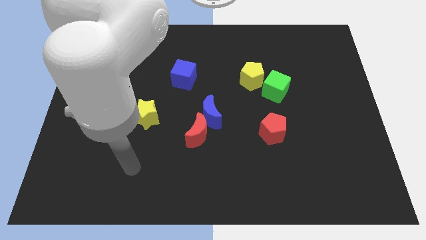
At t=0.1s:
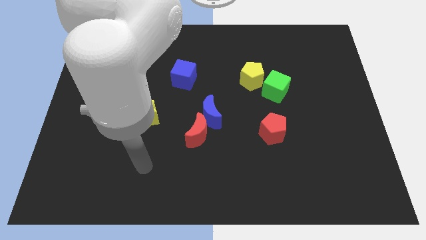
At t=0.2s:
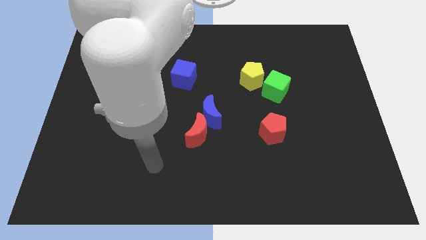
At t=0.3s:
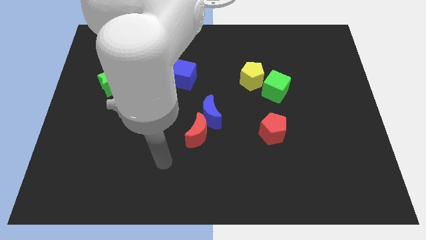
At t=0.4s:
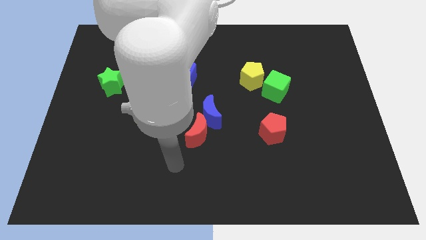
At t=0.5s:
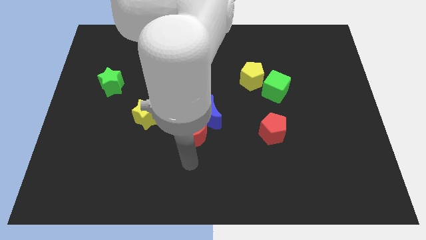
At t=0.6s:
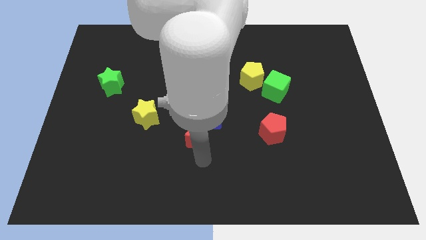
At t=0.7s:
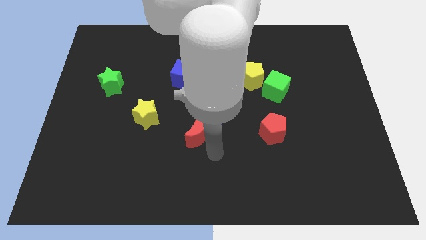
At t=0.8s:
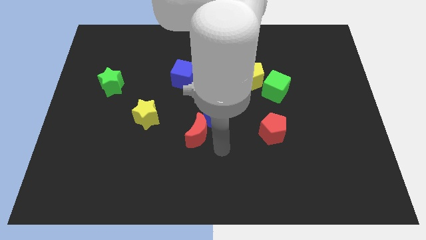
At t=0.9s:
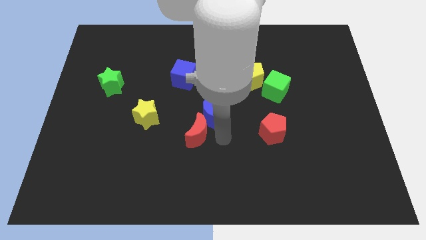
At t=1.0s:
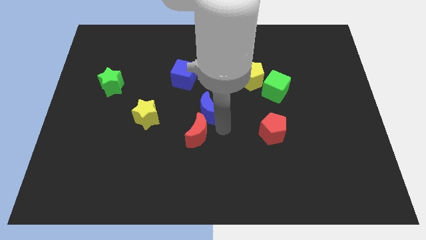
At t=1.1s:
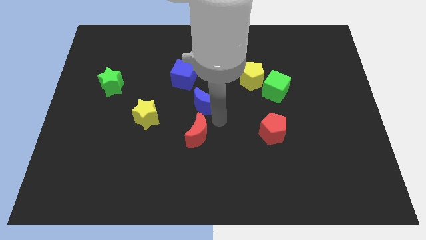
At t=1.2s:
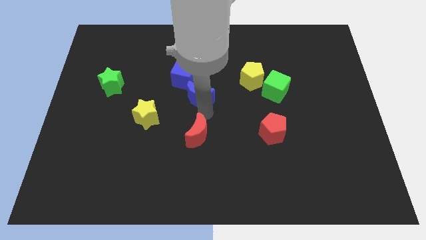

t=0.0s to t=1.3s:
pull the red moon apart from the blue moon

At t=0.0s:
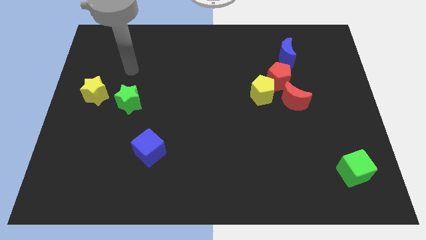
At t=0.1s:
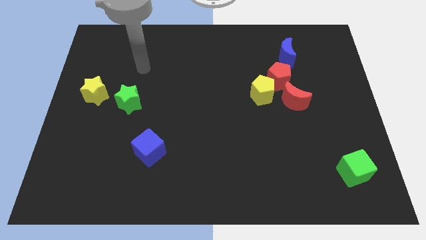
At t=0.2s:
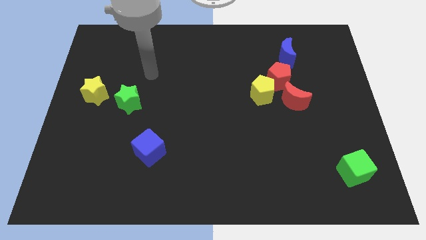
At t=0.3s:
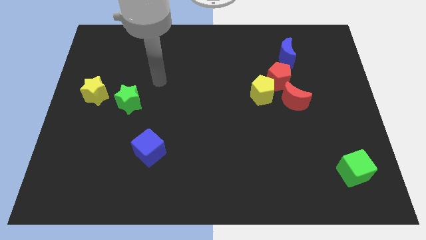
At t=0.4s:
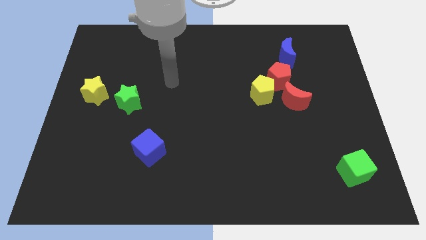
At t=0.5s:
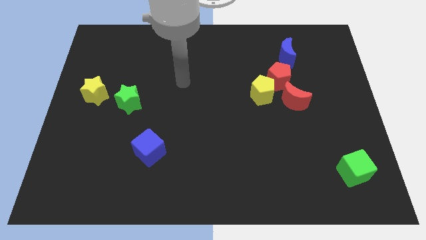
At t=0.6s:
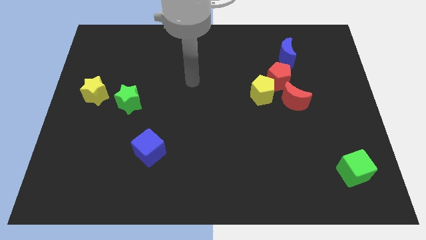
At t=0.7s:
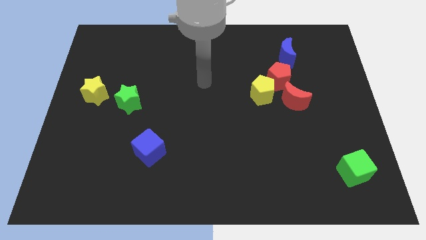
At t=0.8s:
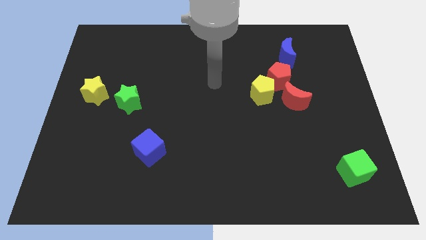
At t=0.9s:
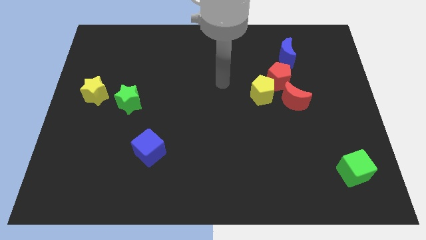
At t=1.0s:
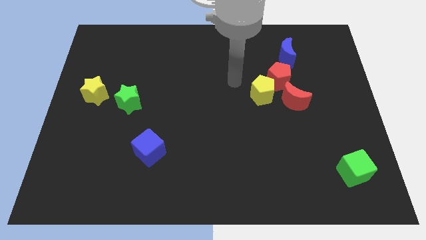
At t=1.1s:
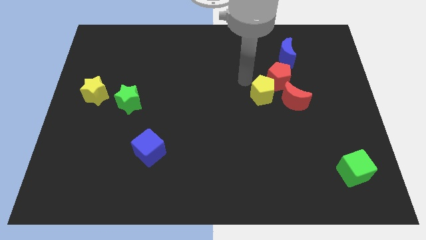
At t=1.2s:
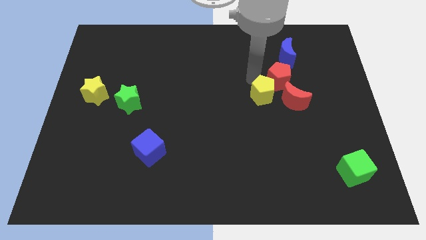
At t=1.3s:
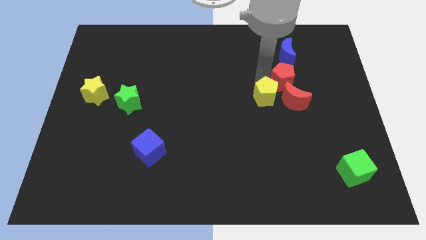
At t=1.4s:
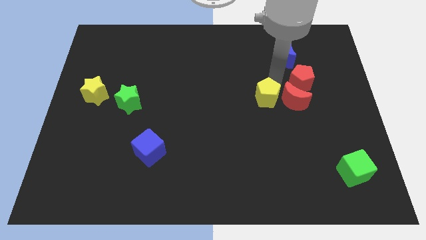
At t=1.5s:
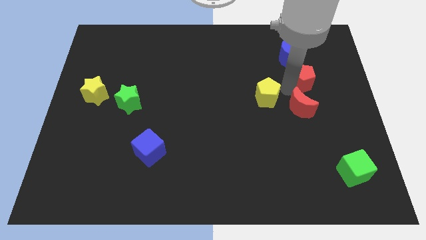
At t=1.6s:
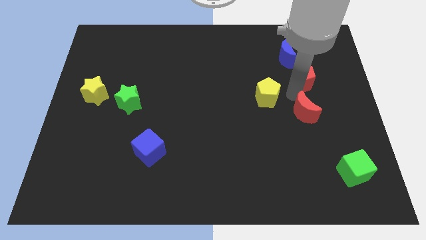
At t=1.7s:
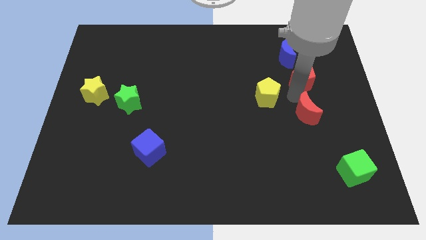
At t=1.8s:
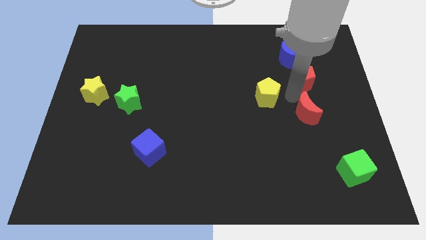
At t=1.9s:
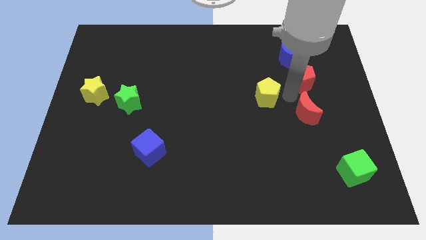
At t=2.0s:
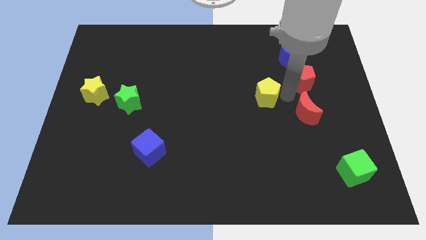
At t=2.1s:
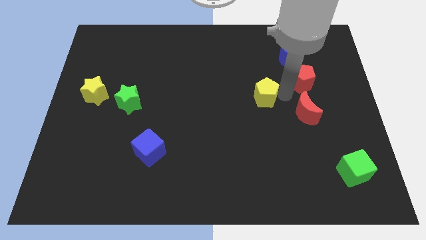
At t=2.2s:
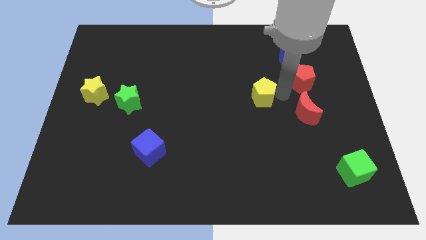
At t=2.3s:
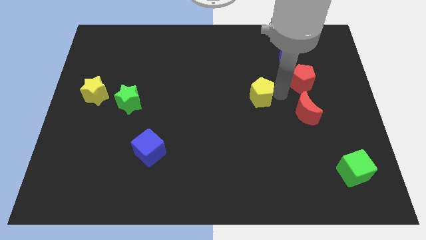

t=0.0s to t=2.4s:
move the yellow pentagon away from the red pentagon and red moon

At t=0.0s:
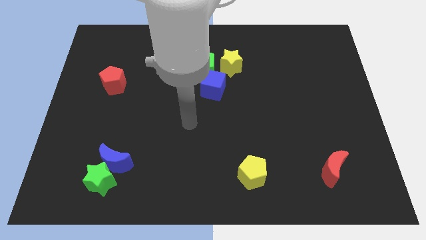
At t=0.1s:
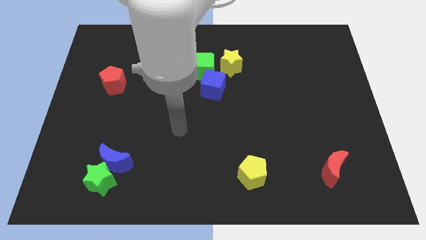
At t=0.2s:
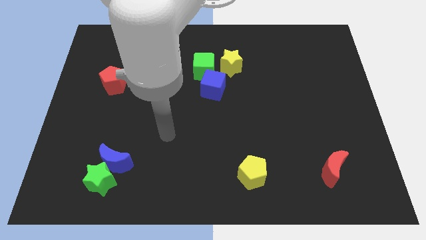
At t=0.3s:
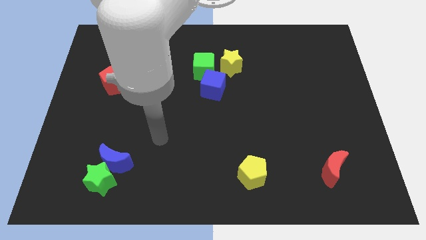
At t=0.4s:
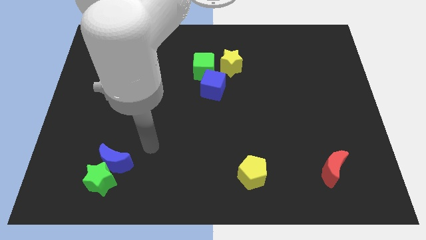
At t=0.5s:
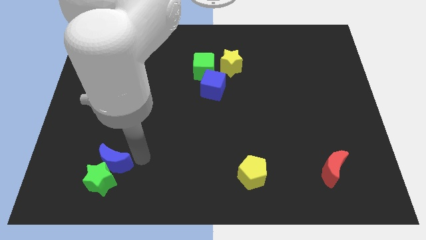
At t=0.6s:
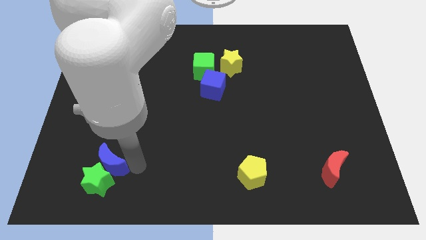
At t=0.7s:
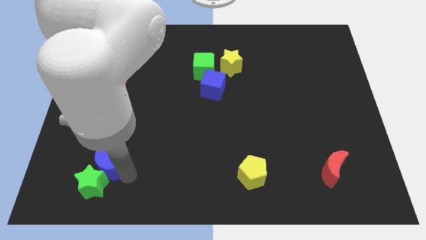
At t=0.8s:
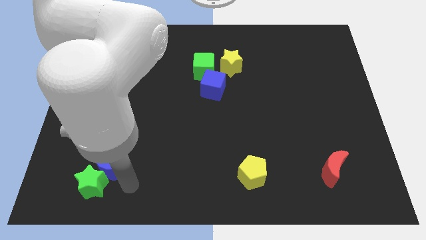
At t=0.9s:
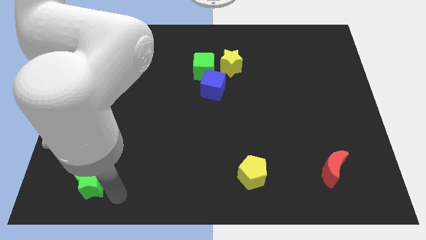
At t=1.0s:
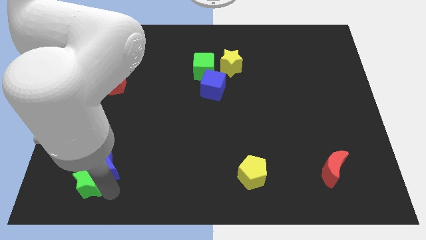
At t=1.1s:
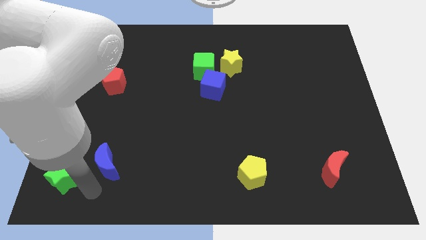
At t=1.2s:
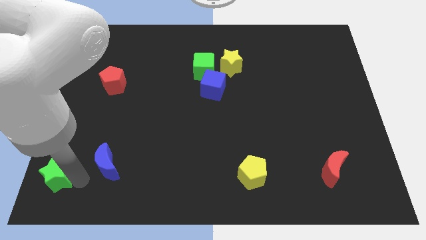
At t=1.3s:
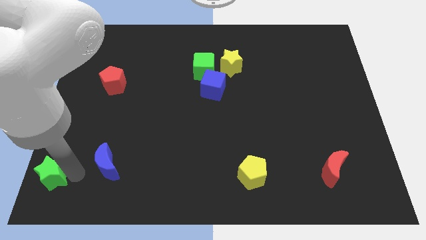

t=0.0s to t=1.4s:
pull the blue moon apart from the green star

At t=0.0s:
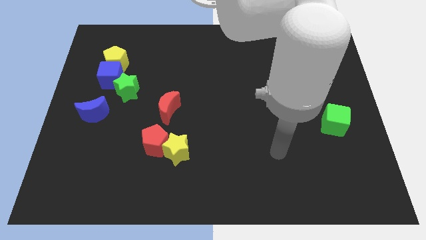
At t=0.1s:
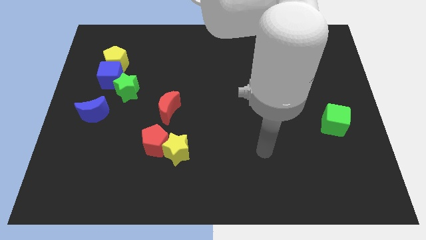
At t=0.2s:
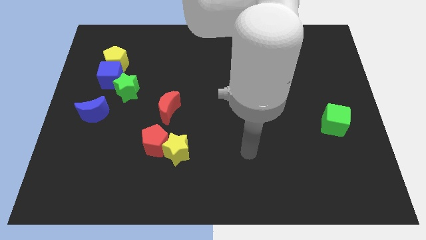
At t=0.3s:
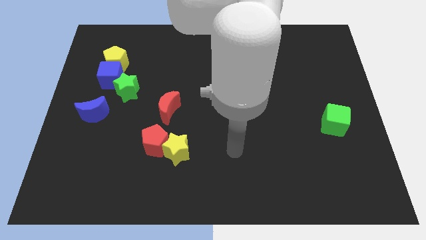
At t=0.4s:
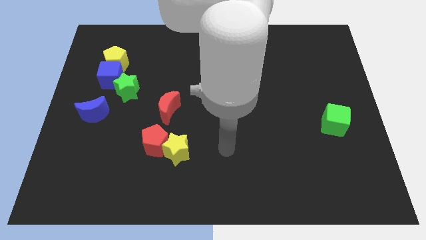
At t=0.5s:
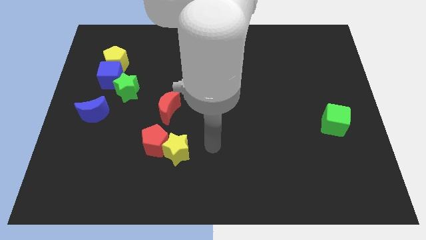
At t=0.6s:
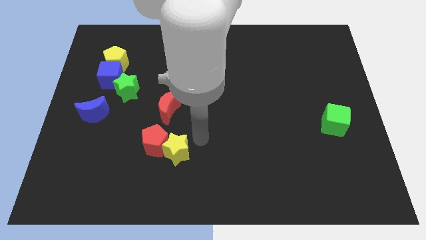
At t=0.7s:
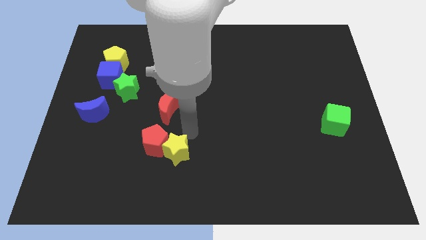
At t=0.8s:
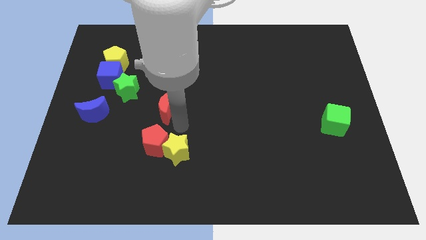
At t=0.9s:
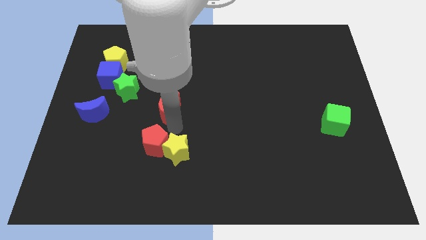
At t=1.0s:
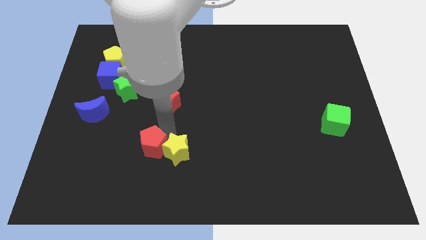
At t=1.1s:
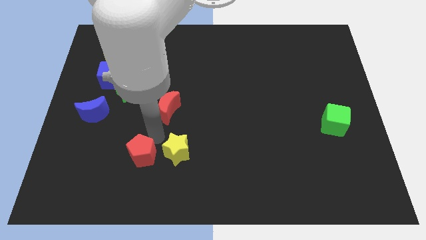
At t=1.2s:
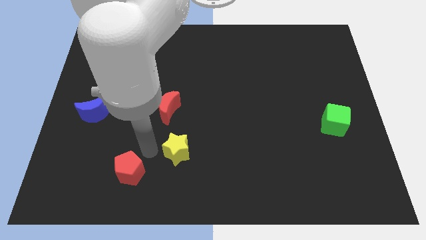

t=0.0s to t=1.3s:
move the yellow star away from the red pentagon

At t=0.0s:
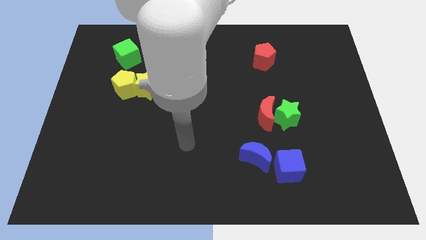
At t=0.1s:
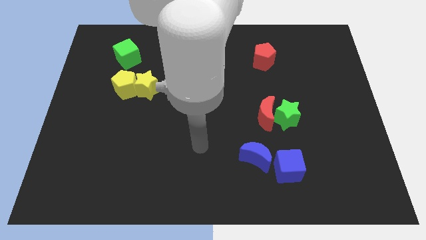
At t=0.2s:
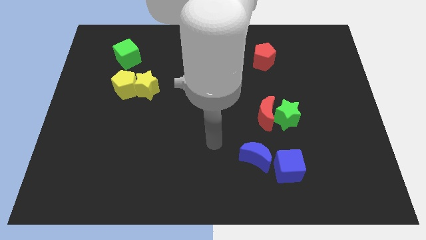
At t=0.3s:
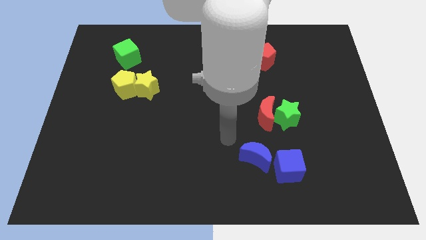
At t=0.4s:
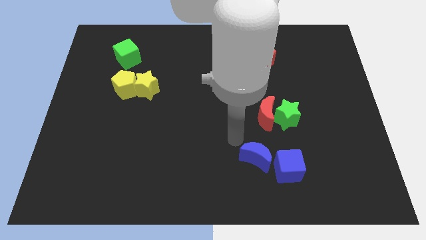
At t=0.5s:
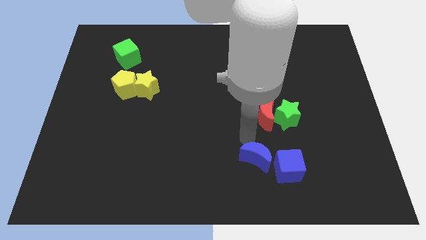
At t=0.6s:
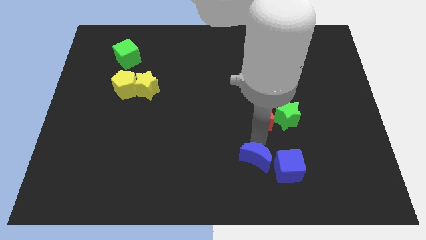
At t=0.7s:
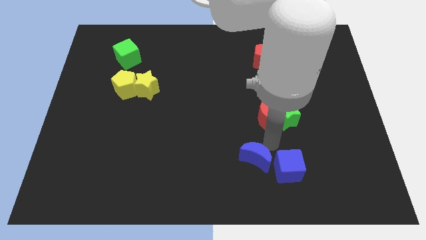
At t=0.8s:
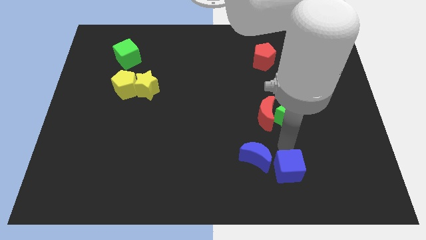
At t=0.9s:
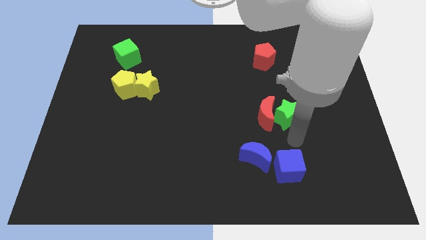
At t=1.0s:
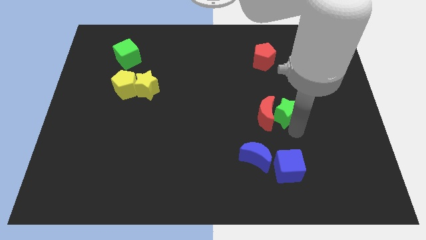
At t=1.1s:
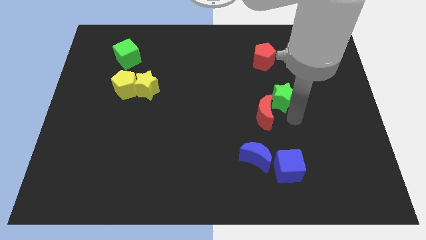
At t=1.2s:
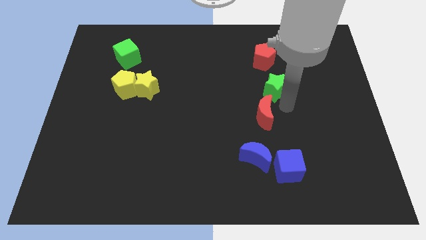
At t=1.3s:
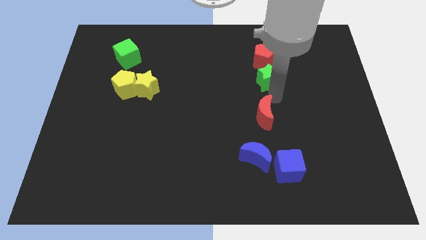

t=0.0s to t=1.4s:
separate the red moon from the green star

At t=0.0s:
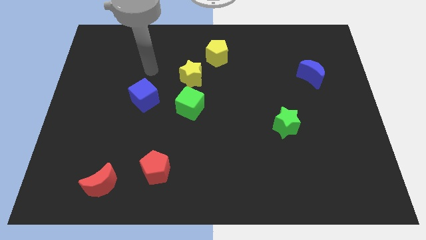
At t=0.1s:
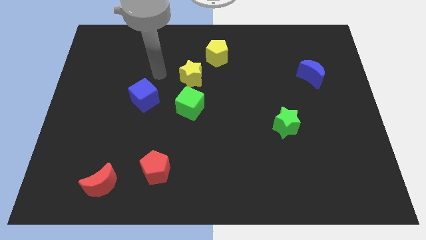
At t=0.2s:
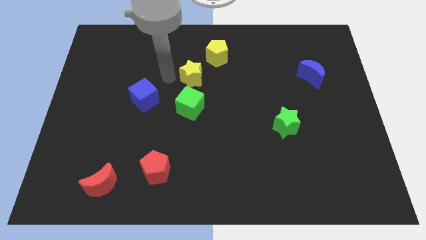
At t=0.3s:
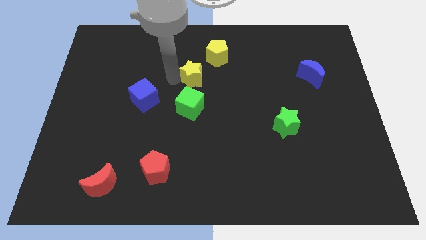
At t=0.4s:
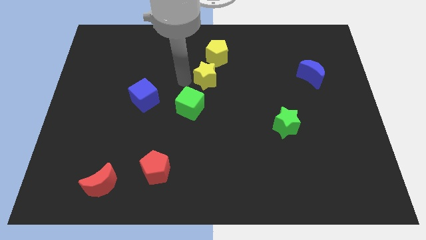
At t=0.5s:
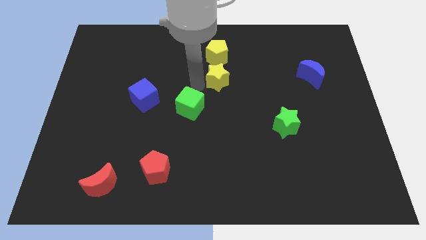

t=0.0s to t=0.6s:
separate the green cube from the yellow star

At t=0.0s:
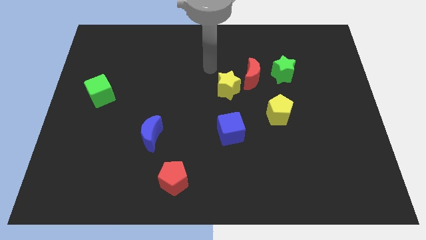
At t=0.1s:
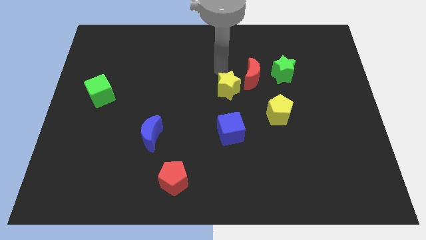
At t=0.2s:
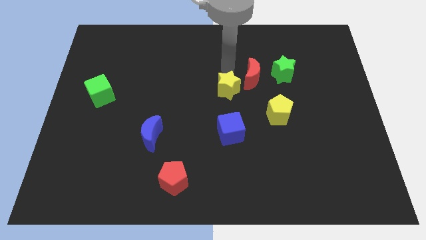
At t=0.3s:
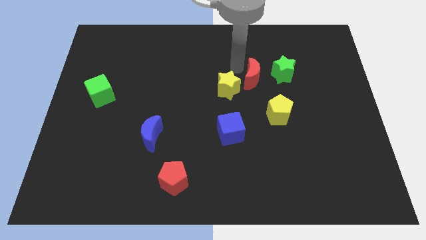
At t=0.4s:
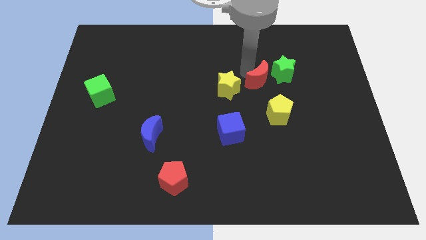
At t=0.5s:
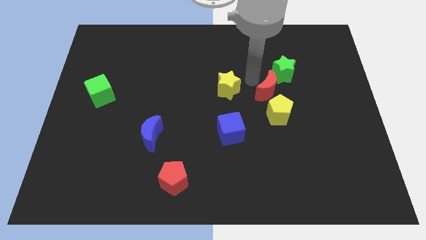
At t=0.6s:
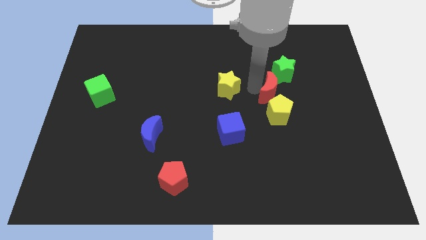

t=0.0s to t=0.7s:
separate the yellow star from the red moon

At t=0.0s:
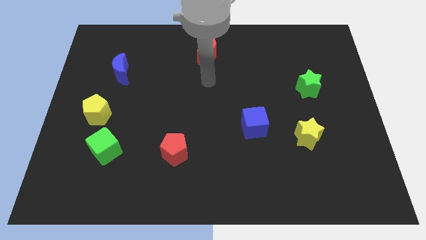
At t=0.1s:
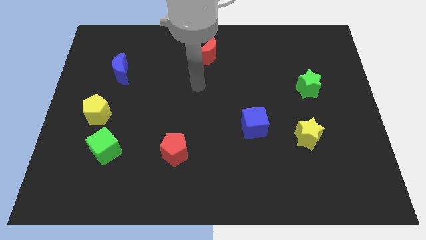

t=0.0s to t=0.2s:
separate the green cube from the yellow pentagon
